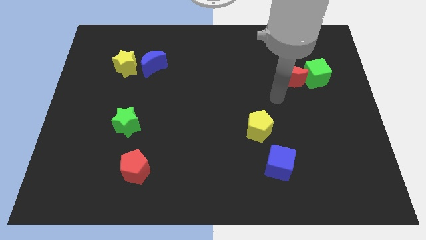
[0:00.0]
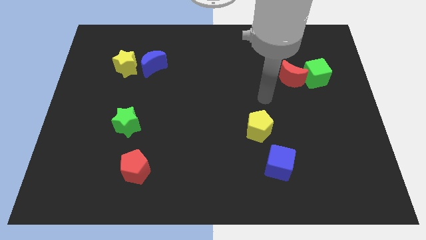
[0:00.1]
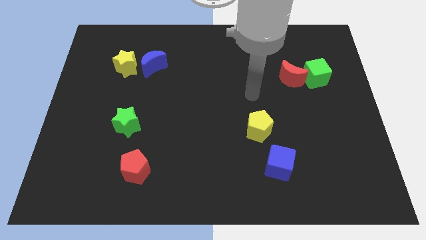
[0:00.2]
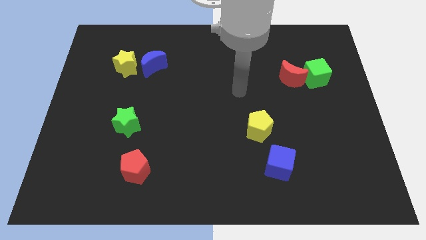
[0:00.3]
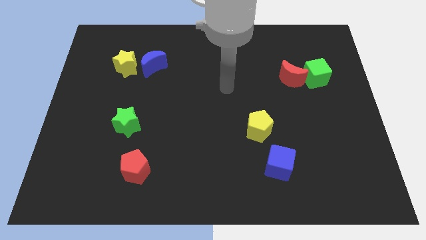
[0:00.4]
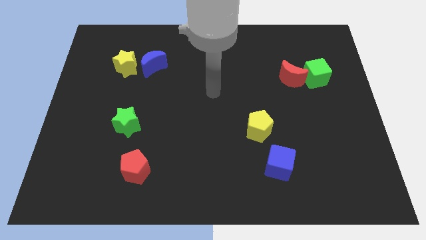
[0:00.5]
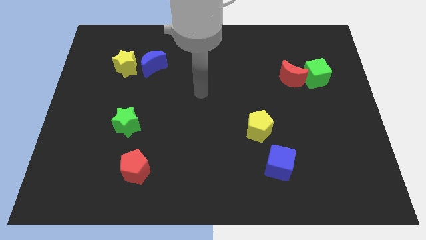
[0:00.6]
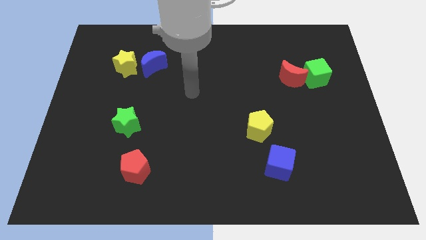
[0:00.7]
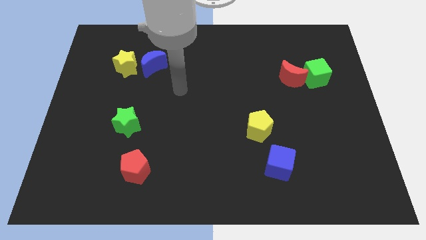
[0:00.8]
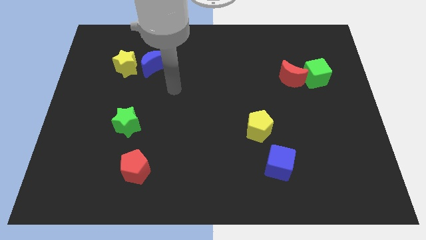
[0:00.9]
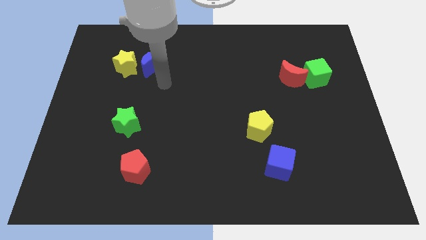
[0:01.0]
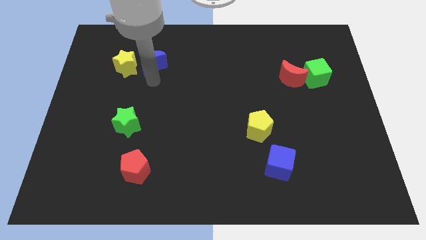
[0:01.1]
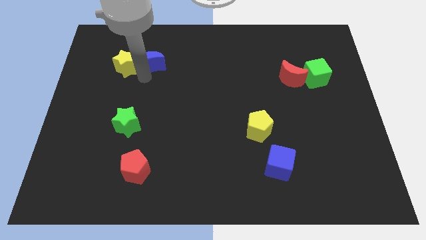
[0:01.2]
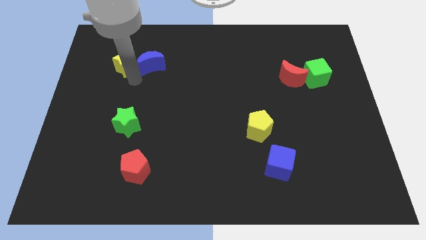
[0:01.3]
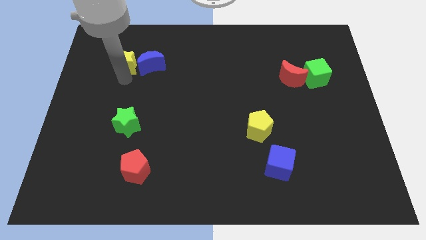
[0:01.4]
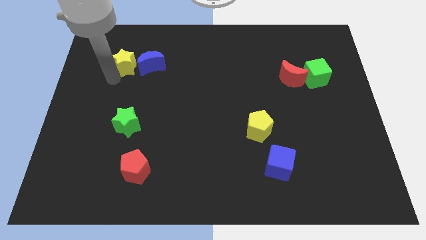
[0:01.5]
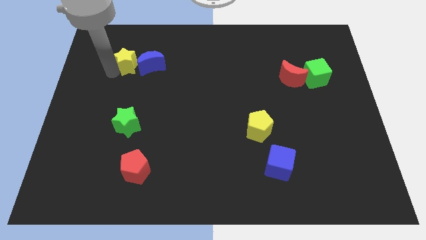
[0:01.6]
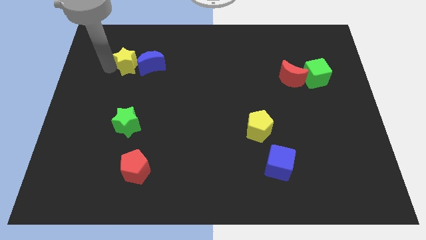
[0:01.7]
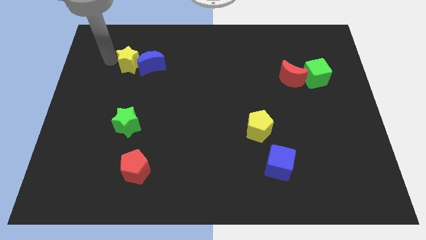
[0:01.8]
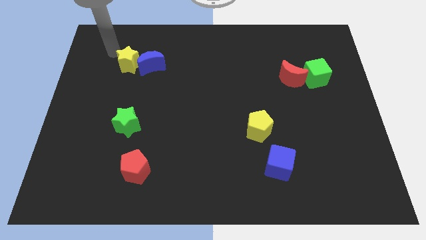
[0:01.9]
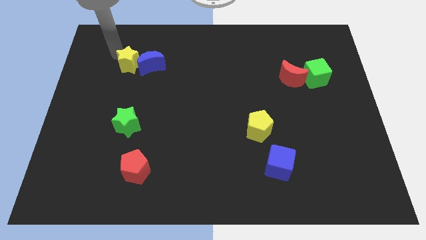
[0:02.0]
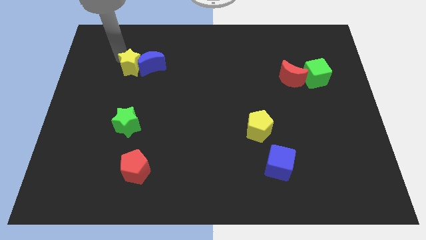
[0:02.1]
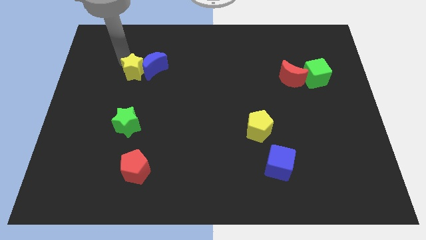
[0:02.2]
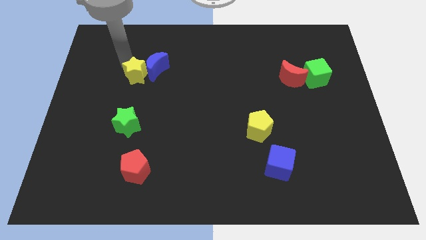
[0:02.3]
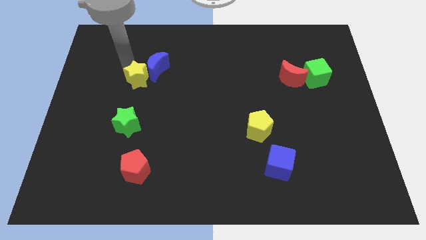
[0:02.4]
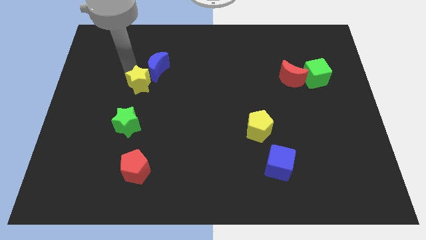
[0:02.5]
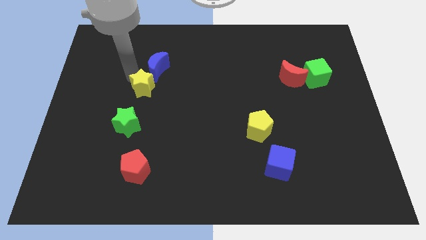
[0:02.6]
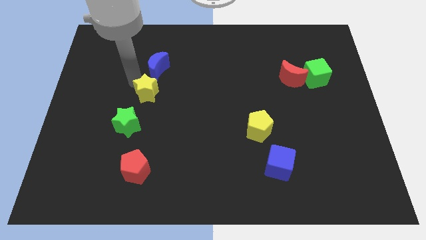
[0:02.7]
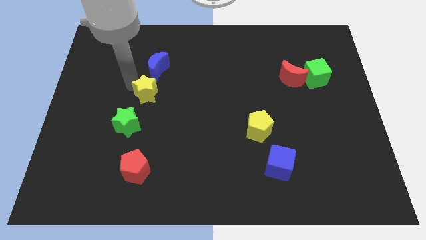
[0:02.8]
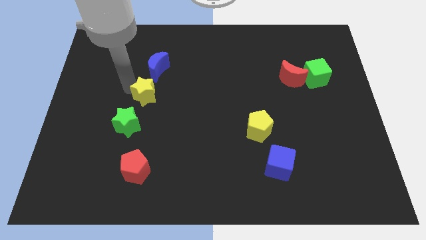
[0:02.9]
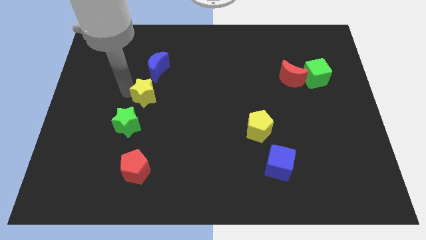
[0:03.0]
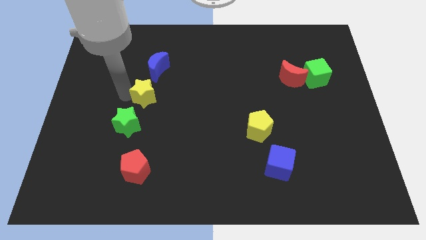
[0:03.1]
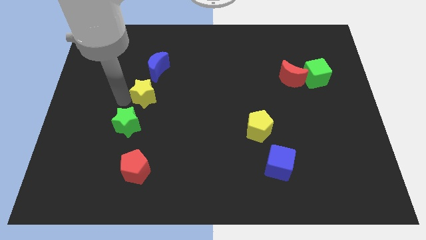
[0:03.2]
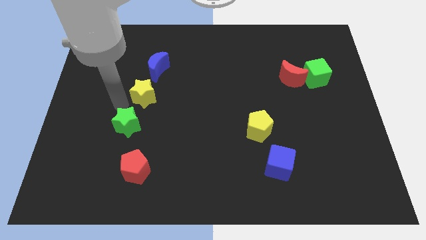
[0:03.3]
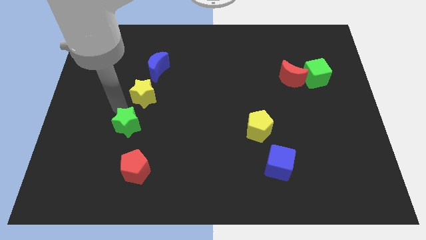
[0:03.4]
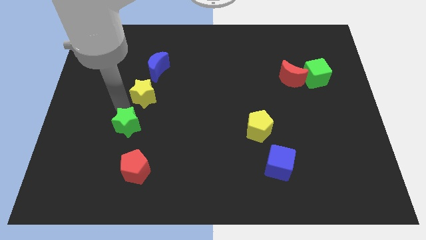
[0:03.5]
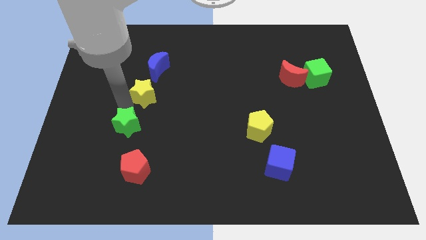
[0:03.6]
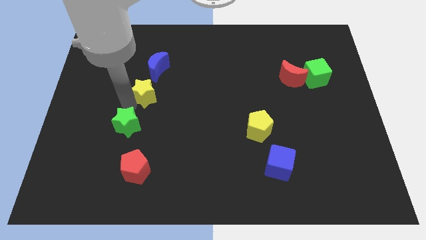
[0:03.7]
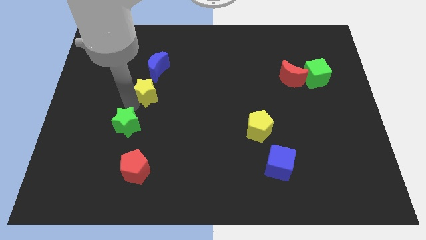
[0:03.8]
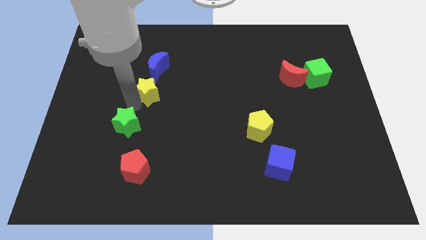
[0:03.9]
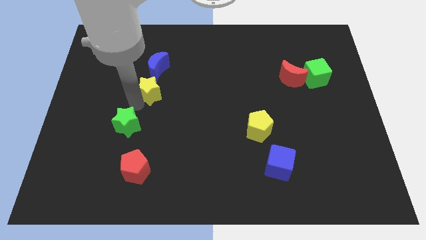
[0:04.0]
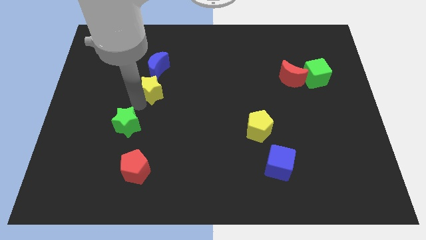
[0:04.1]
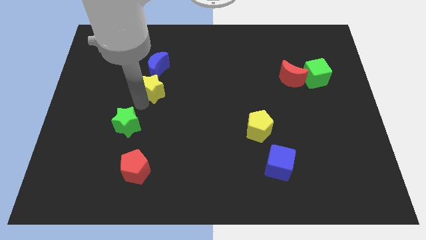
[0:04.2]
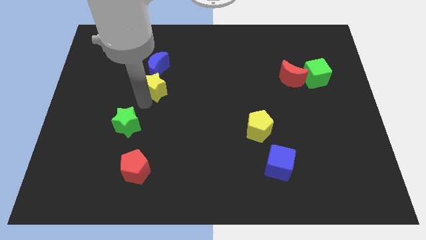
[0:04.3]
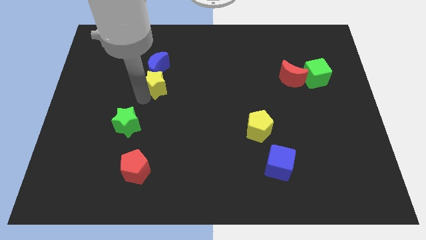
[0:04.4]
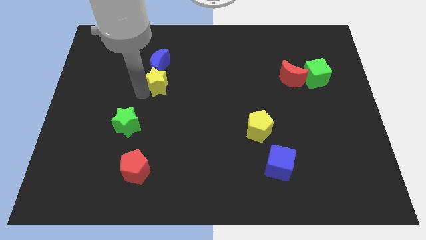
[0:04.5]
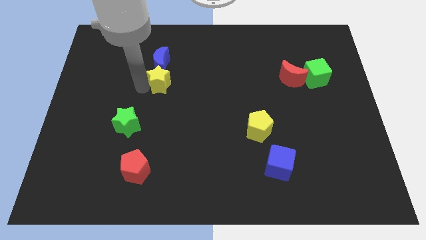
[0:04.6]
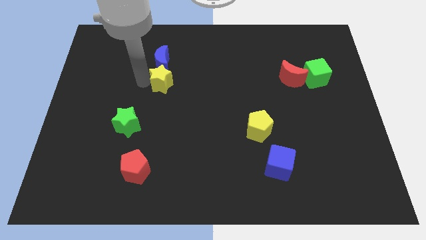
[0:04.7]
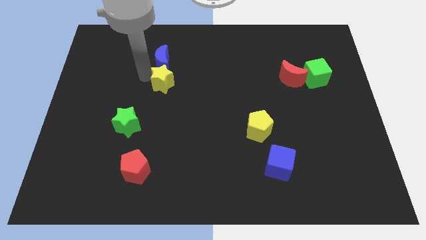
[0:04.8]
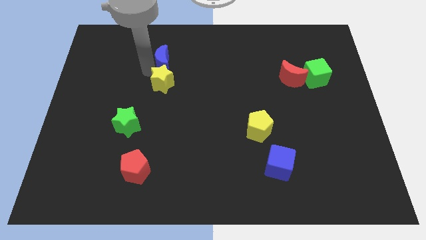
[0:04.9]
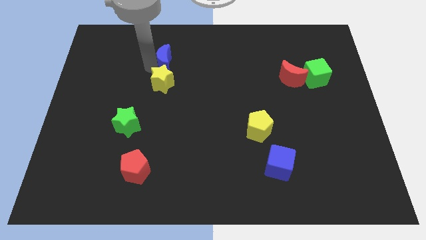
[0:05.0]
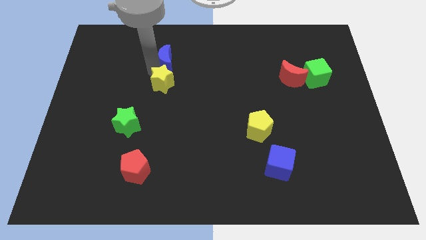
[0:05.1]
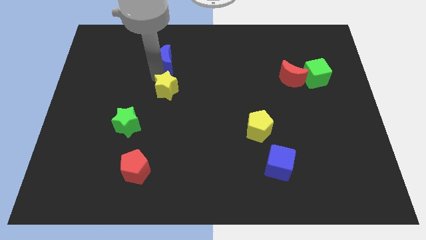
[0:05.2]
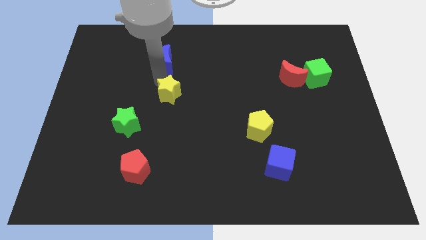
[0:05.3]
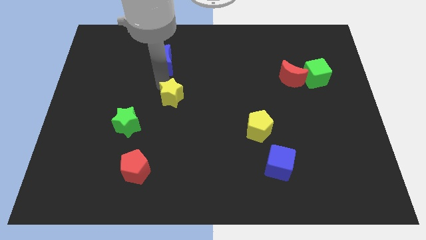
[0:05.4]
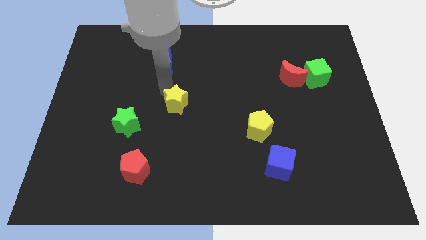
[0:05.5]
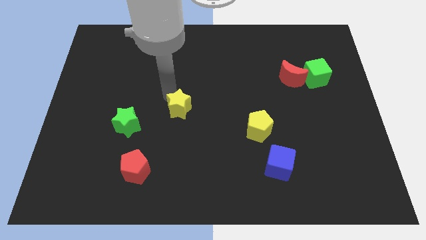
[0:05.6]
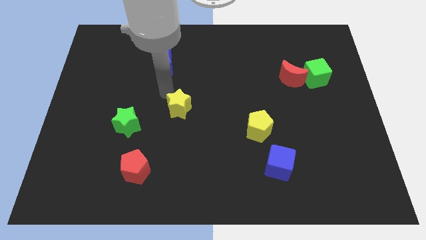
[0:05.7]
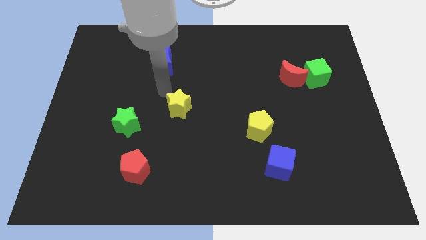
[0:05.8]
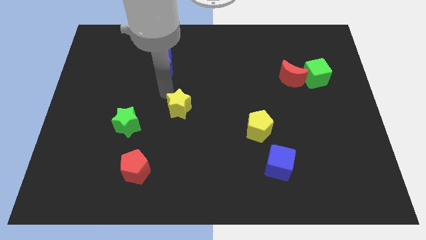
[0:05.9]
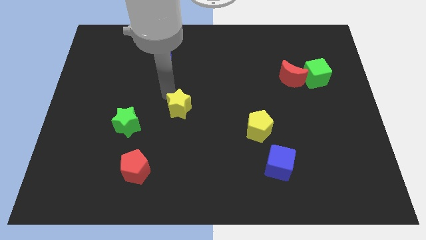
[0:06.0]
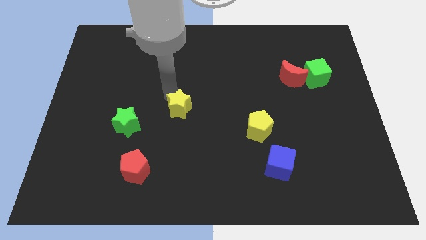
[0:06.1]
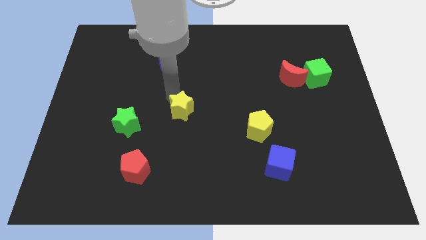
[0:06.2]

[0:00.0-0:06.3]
push the yellow star down and then to the right

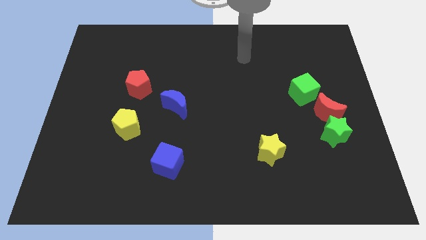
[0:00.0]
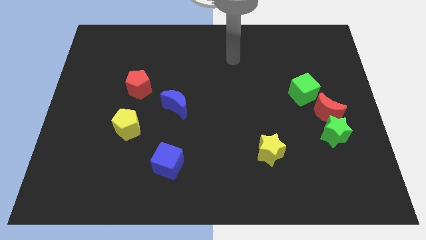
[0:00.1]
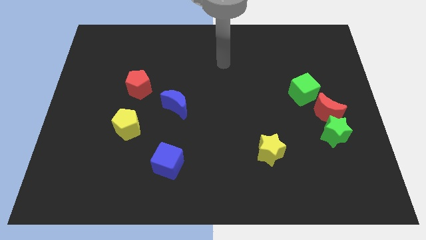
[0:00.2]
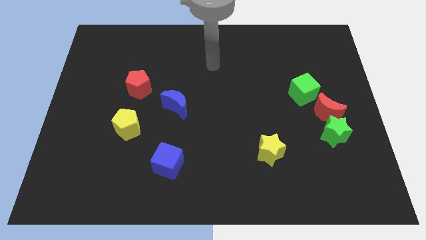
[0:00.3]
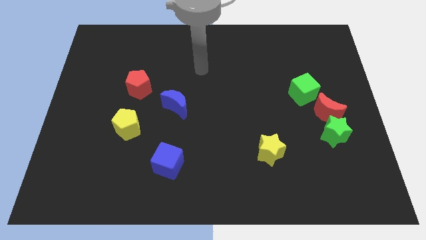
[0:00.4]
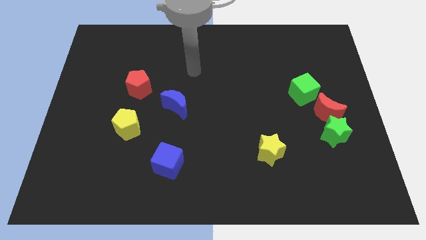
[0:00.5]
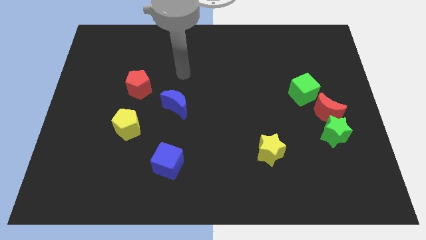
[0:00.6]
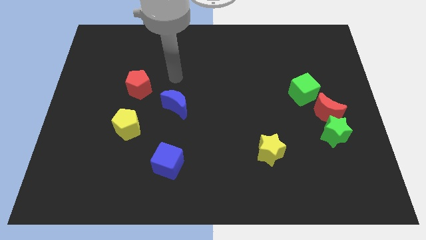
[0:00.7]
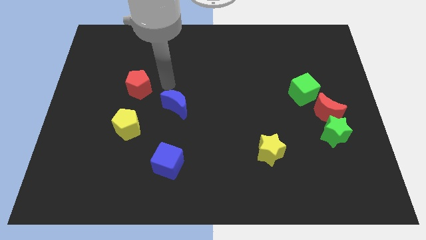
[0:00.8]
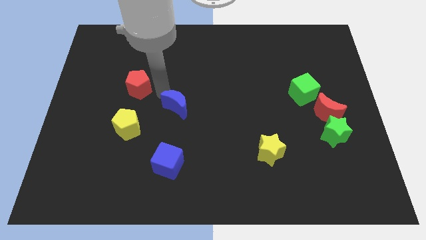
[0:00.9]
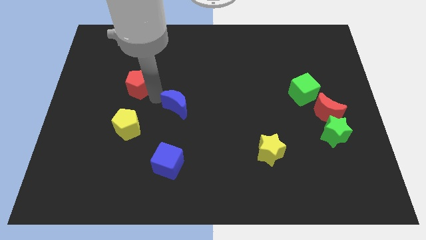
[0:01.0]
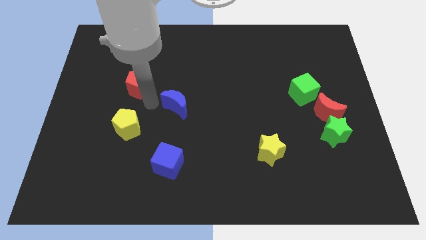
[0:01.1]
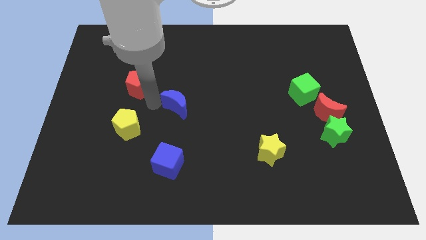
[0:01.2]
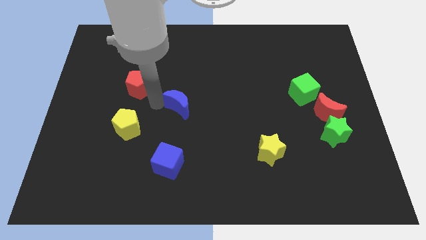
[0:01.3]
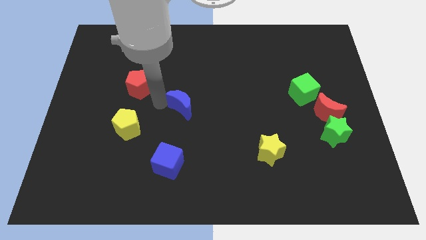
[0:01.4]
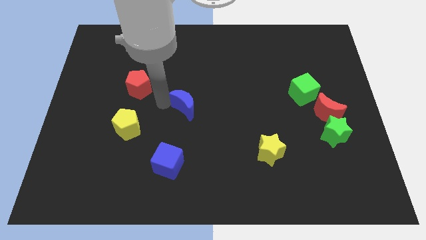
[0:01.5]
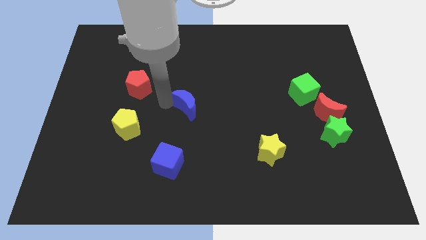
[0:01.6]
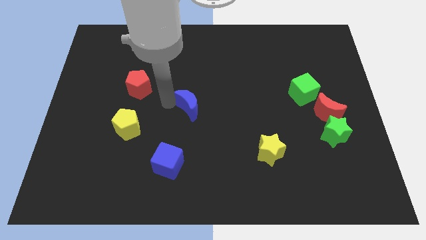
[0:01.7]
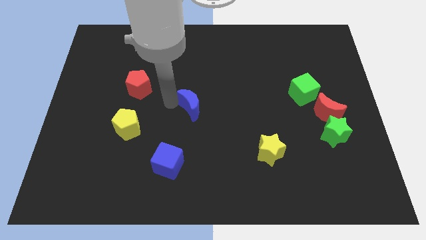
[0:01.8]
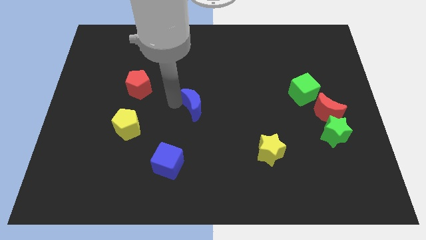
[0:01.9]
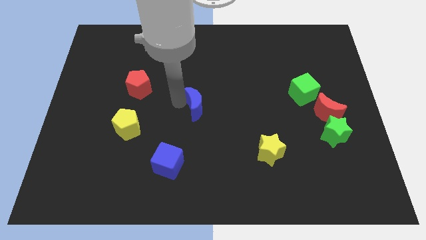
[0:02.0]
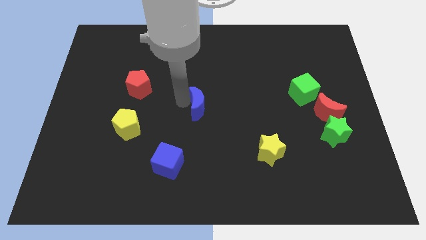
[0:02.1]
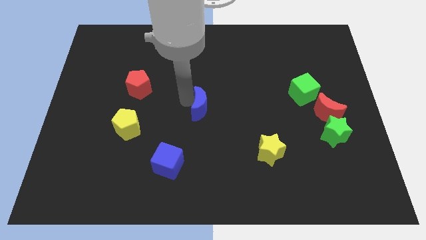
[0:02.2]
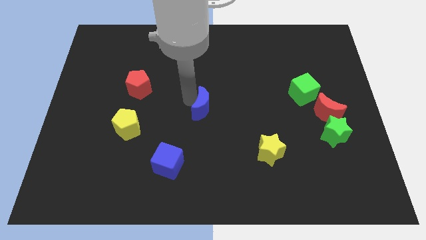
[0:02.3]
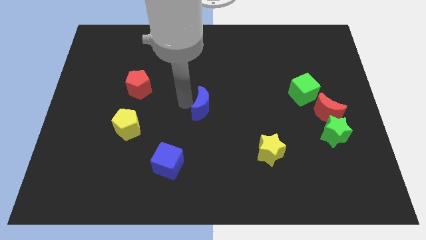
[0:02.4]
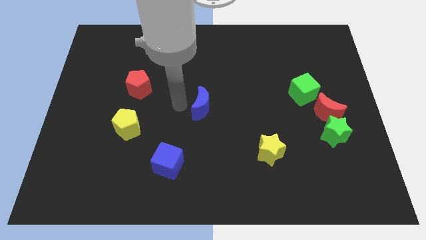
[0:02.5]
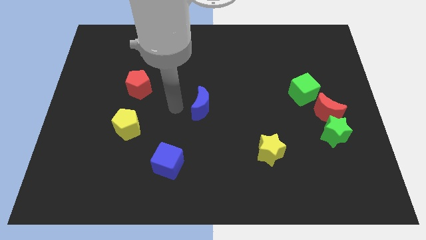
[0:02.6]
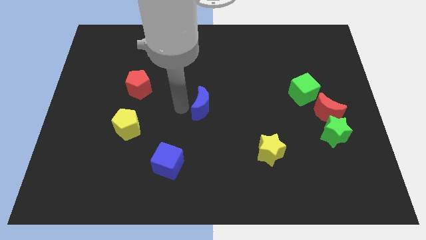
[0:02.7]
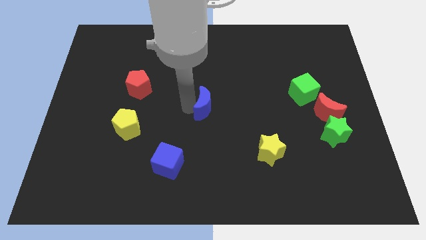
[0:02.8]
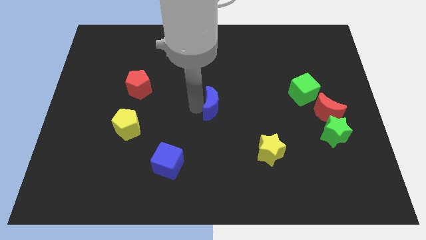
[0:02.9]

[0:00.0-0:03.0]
slightly move the blue moon to the right
